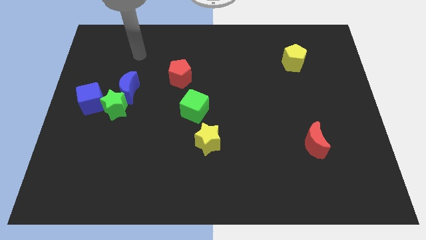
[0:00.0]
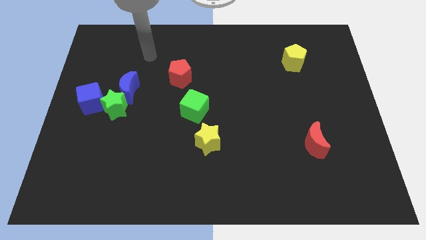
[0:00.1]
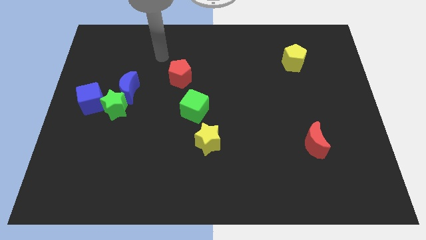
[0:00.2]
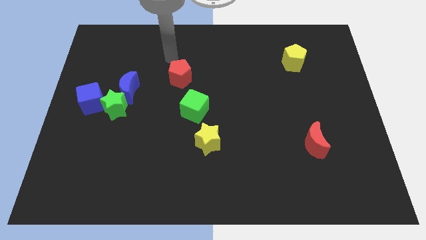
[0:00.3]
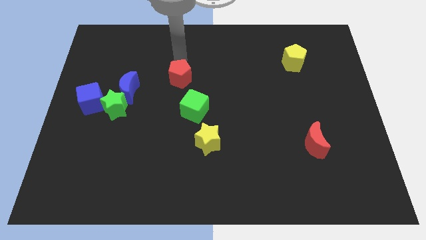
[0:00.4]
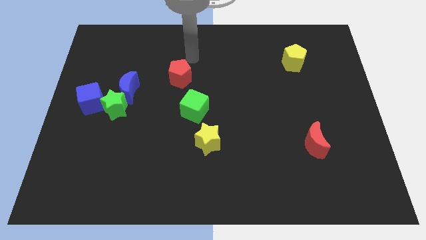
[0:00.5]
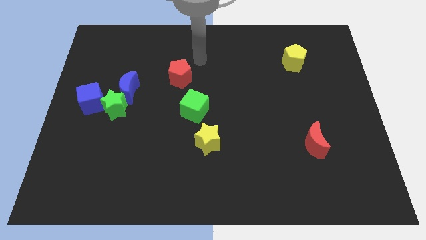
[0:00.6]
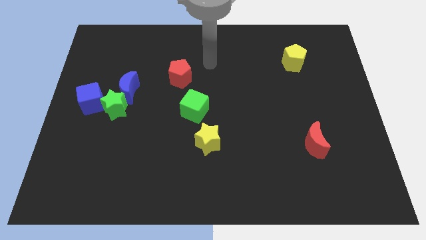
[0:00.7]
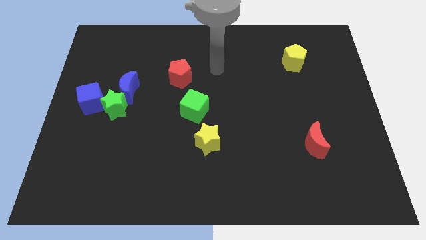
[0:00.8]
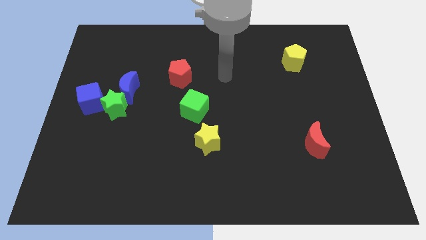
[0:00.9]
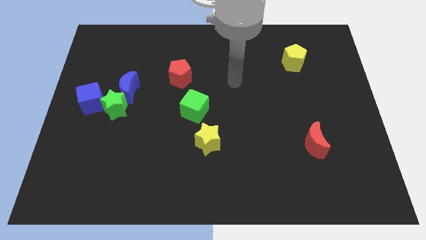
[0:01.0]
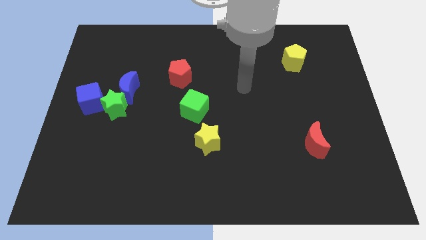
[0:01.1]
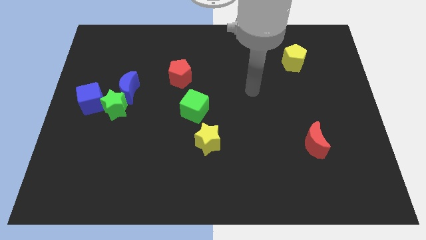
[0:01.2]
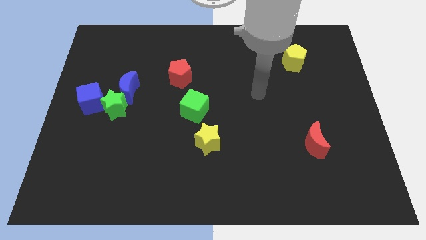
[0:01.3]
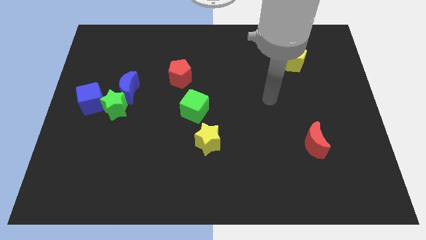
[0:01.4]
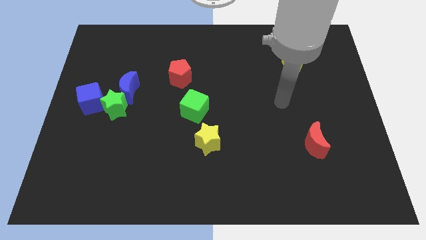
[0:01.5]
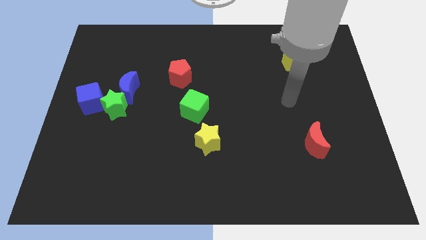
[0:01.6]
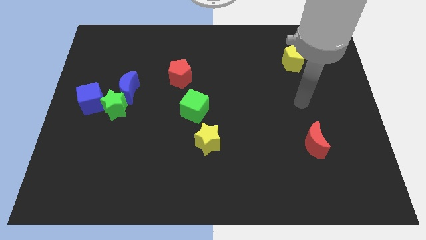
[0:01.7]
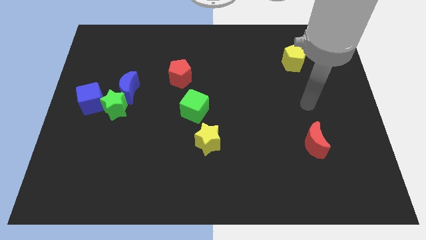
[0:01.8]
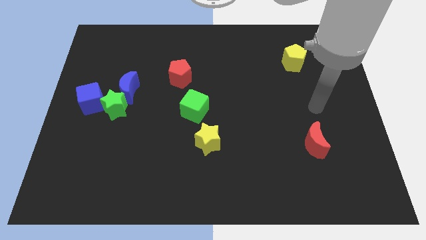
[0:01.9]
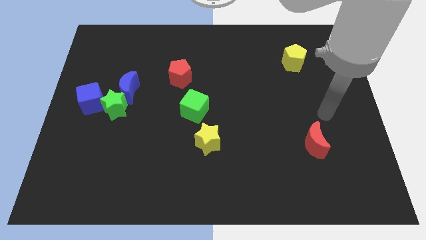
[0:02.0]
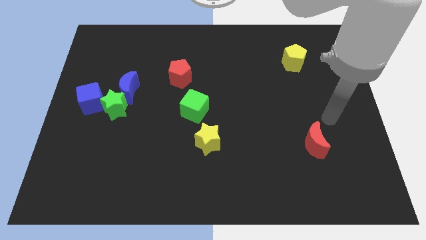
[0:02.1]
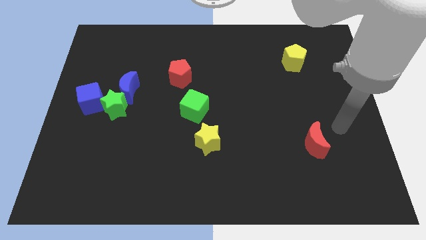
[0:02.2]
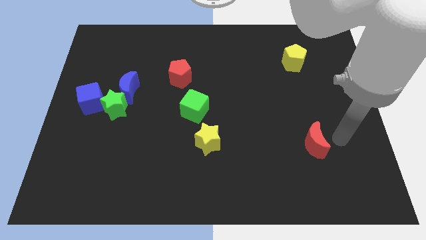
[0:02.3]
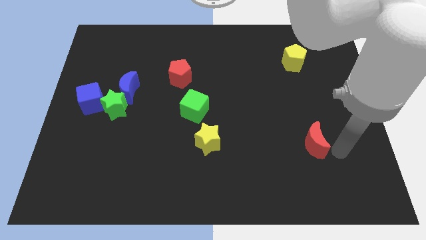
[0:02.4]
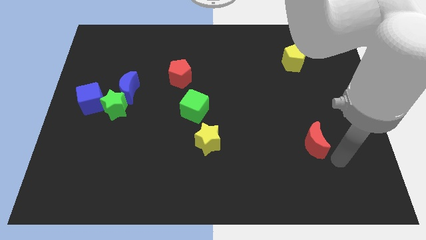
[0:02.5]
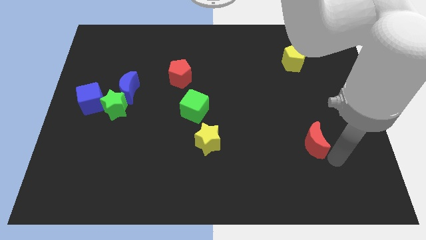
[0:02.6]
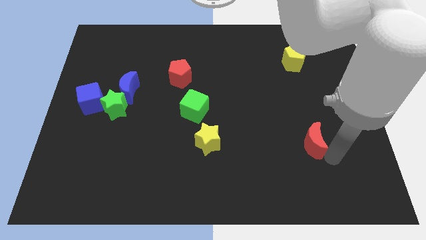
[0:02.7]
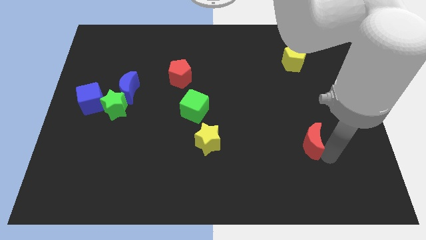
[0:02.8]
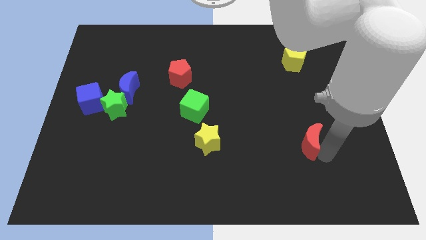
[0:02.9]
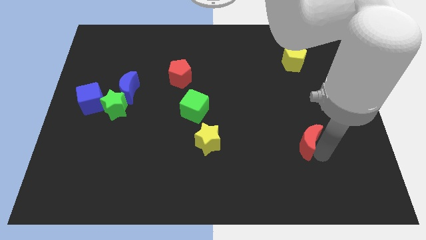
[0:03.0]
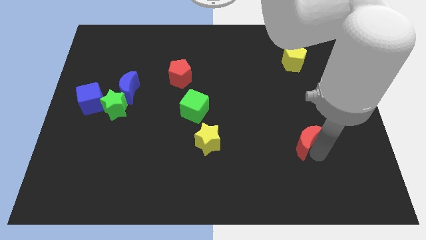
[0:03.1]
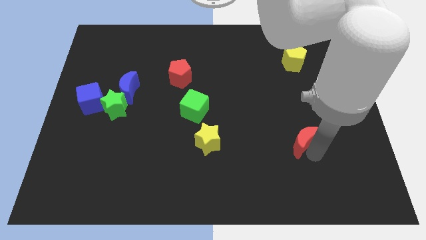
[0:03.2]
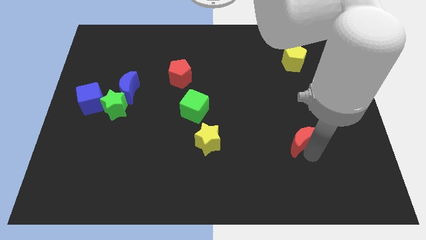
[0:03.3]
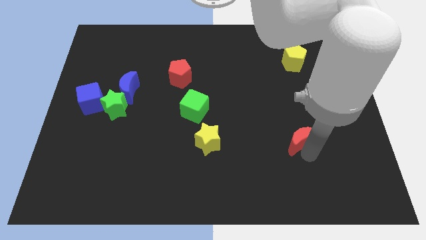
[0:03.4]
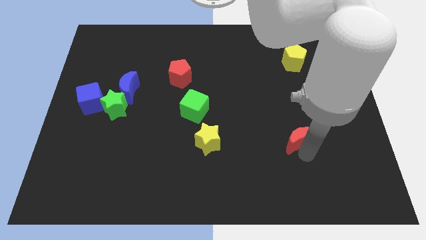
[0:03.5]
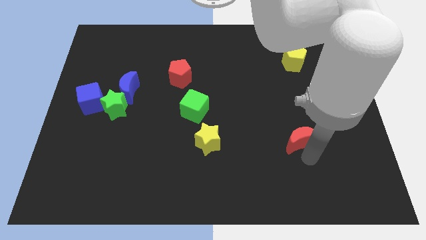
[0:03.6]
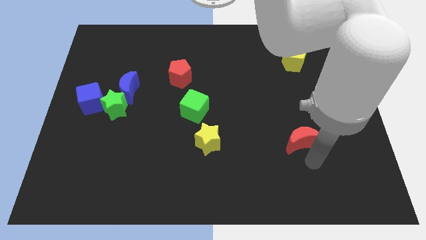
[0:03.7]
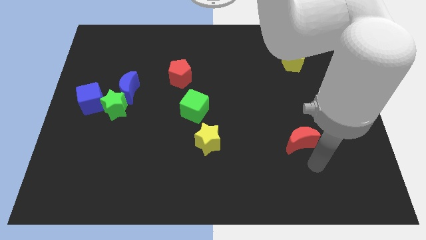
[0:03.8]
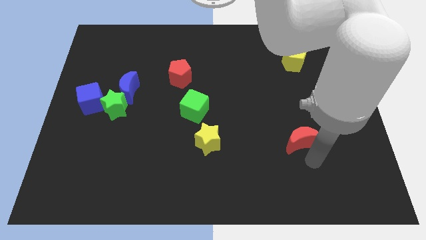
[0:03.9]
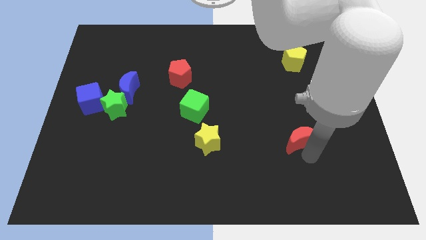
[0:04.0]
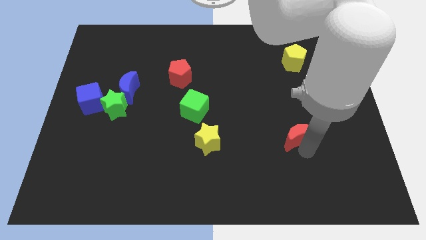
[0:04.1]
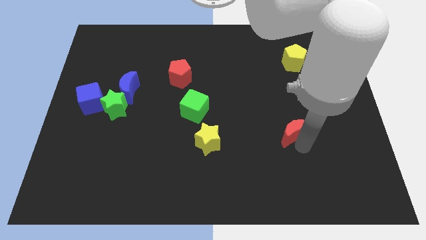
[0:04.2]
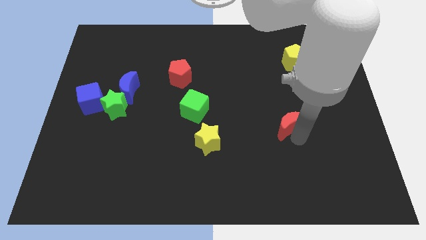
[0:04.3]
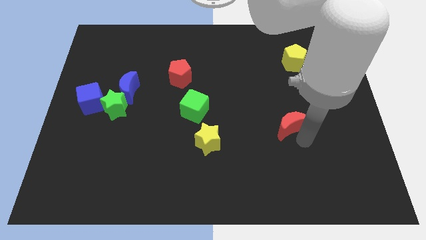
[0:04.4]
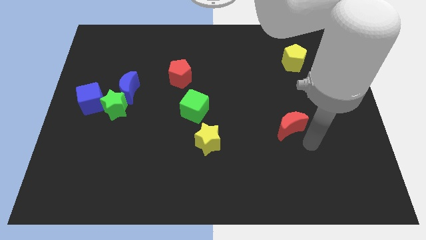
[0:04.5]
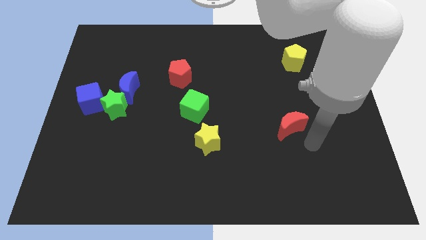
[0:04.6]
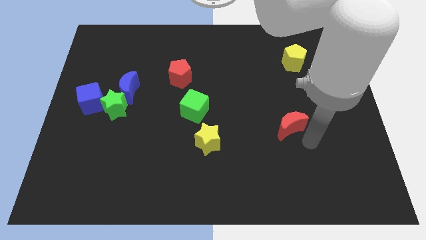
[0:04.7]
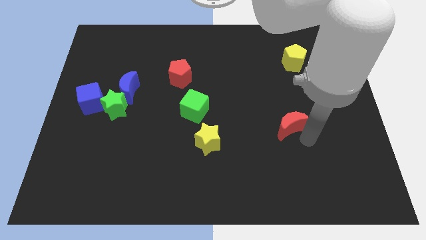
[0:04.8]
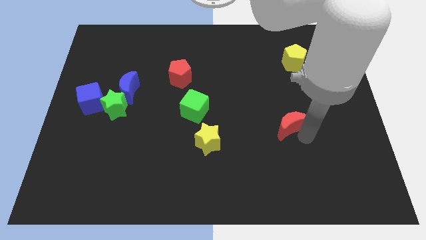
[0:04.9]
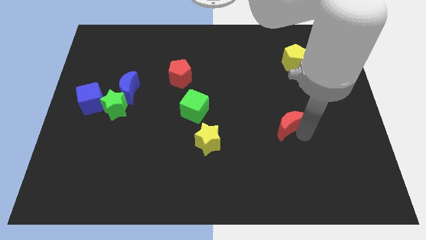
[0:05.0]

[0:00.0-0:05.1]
slide the red moon upwards and then left a little bit

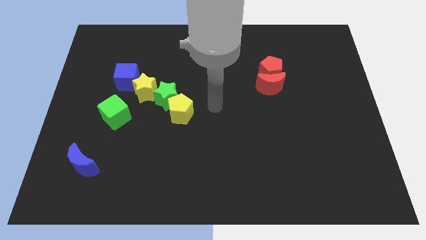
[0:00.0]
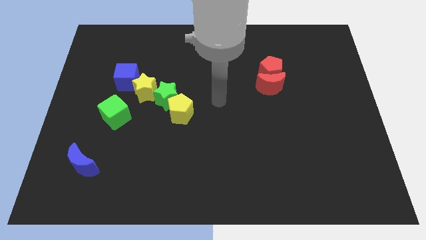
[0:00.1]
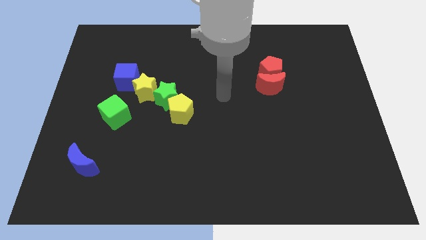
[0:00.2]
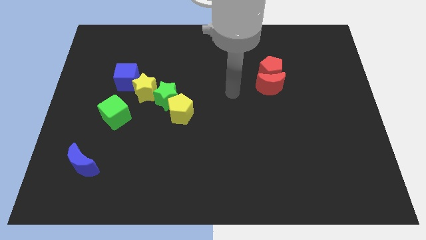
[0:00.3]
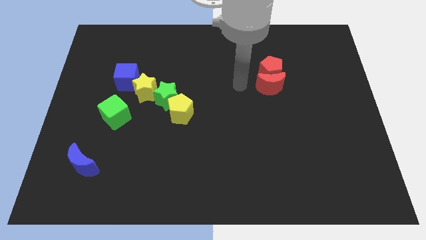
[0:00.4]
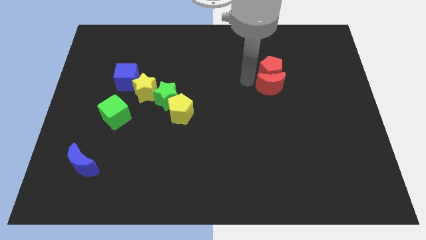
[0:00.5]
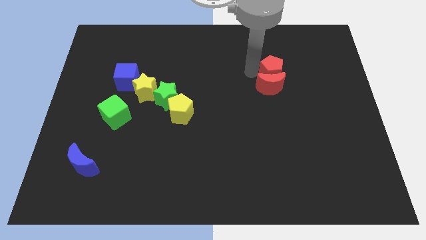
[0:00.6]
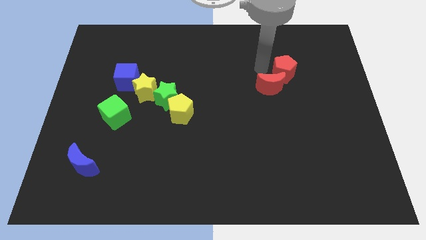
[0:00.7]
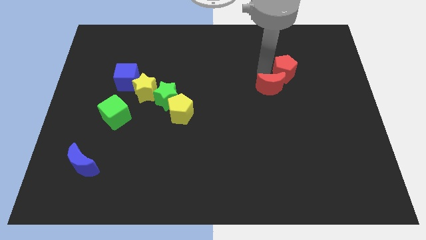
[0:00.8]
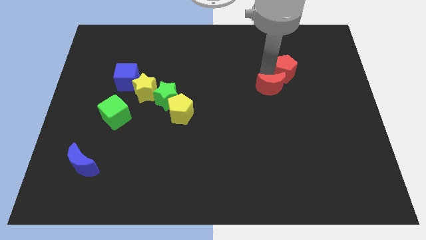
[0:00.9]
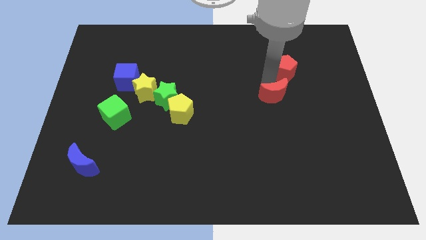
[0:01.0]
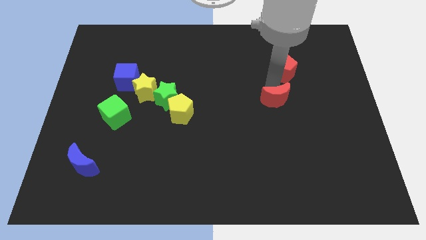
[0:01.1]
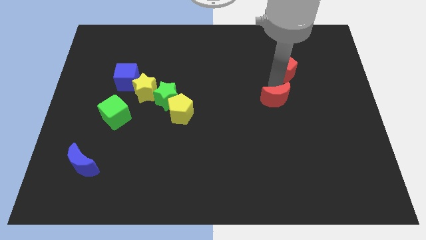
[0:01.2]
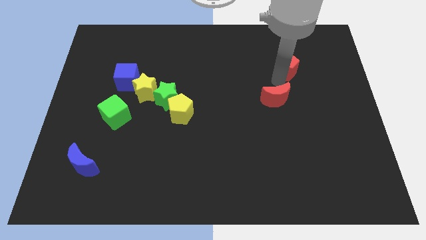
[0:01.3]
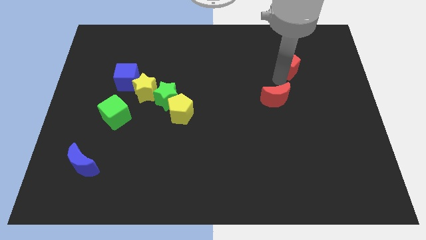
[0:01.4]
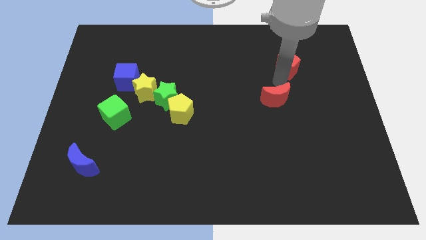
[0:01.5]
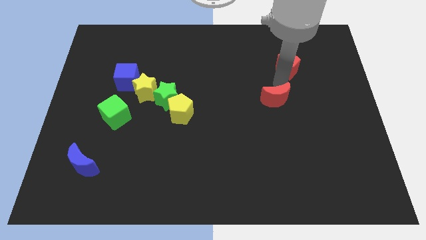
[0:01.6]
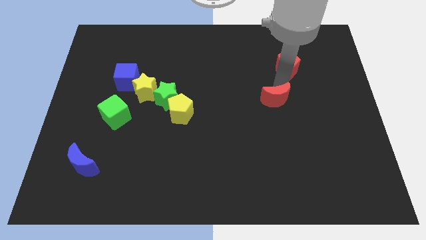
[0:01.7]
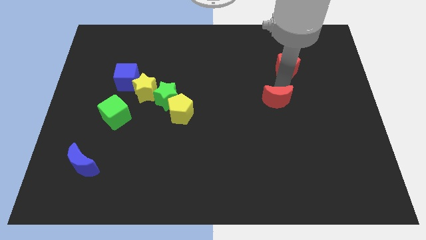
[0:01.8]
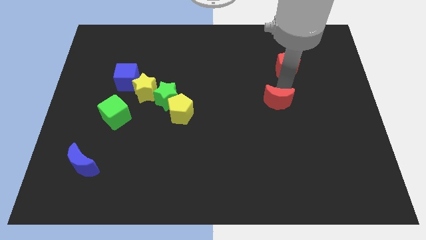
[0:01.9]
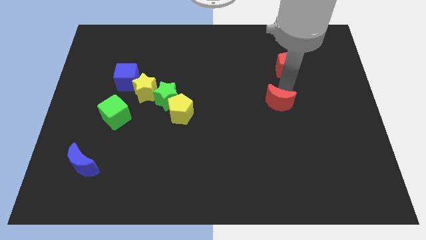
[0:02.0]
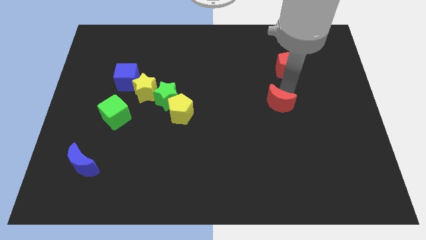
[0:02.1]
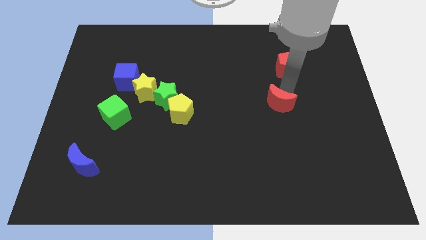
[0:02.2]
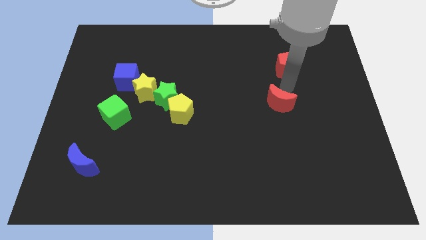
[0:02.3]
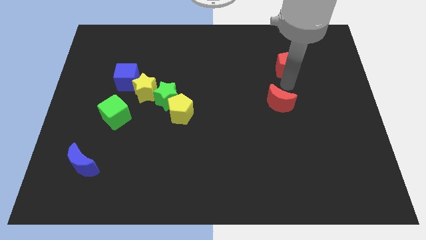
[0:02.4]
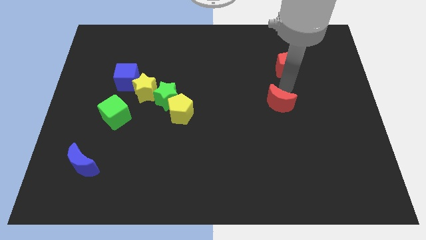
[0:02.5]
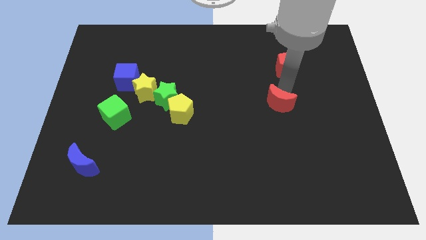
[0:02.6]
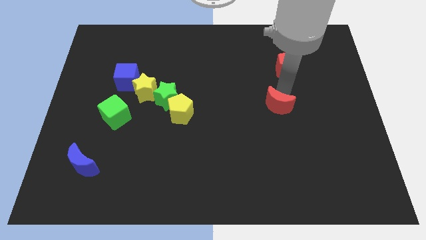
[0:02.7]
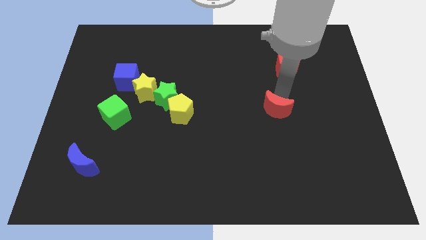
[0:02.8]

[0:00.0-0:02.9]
push the red moon slightly down
